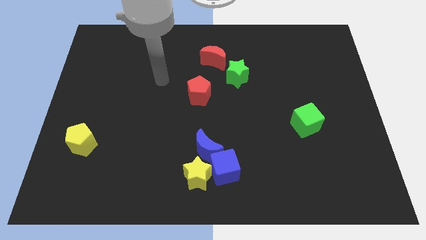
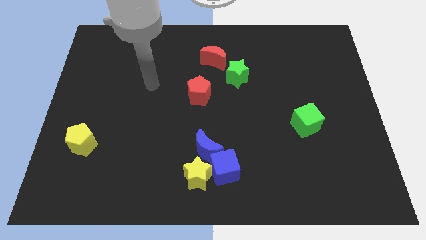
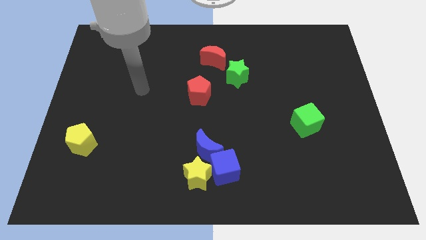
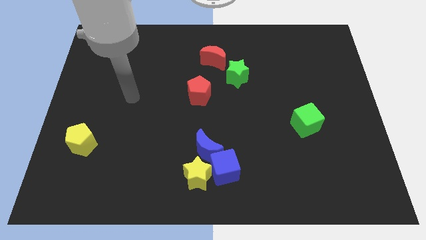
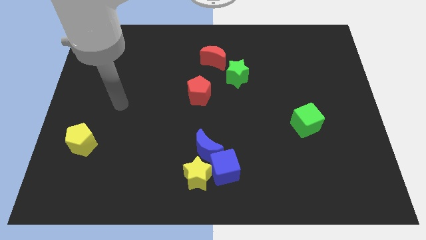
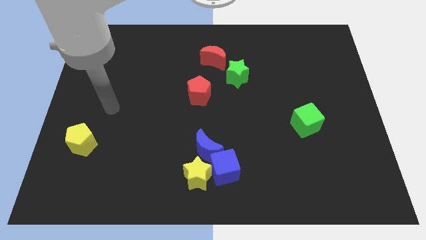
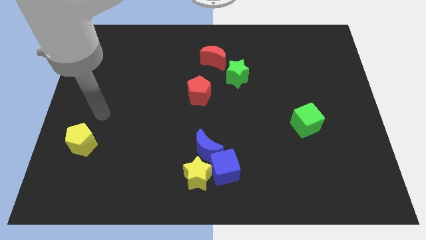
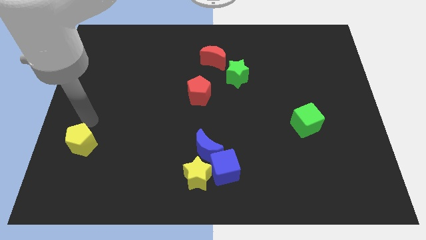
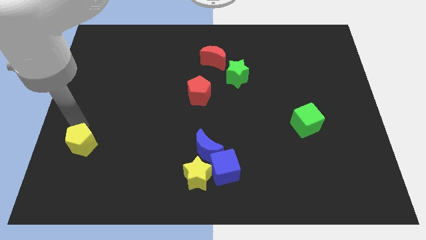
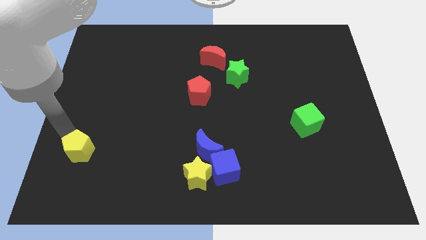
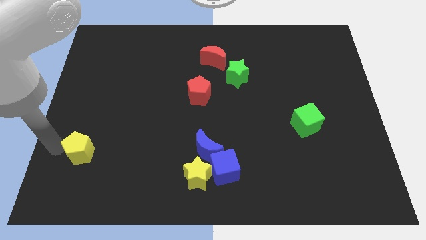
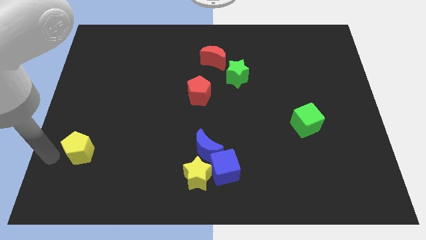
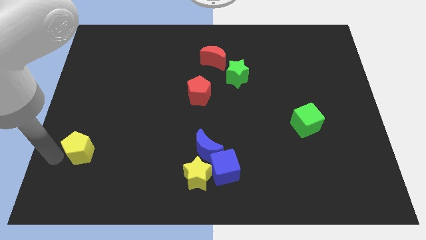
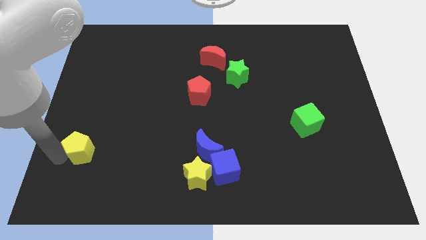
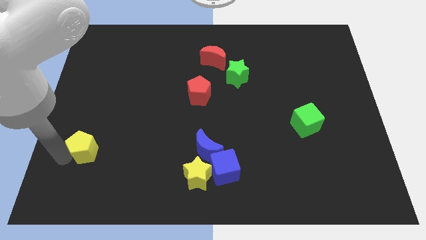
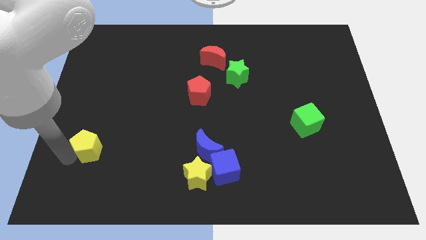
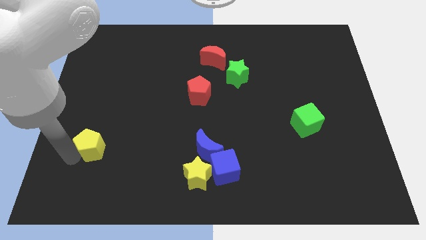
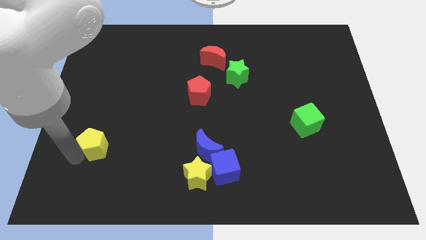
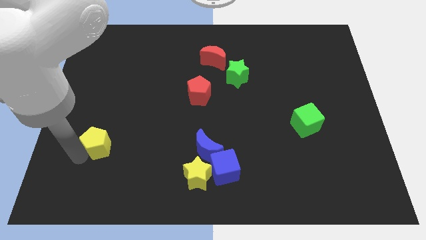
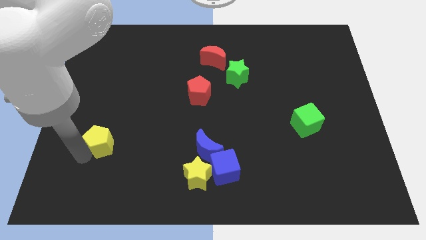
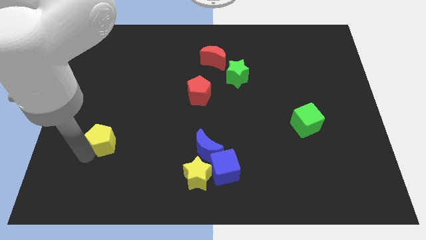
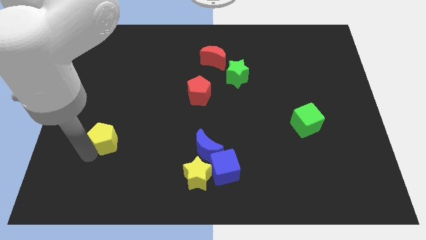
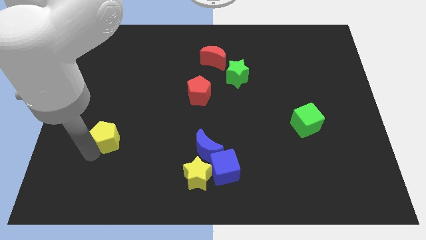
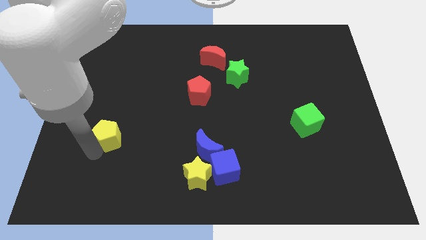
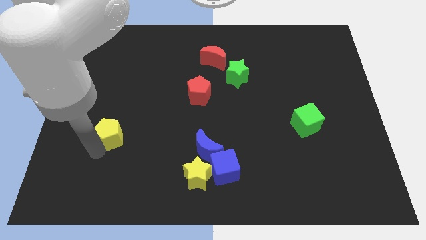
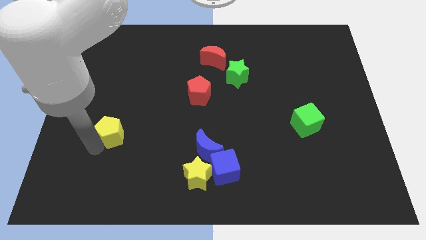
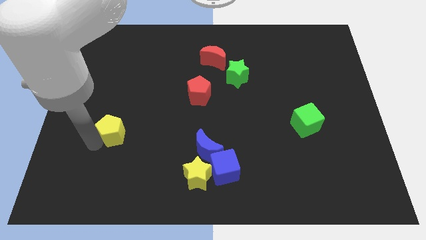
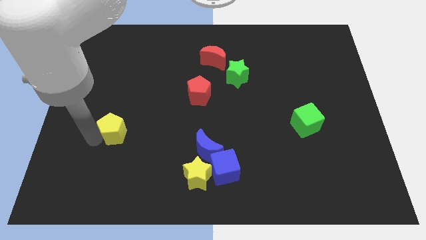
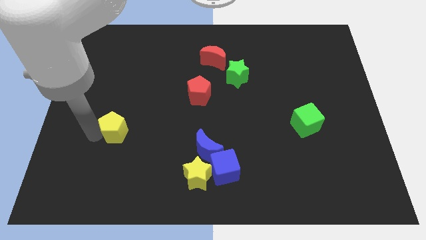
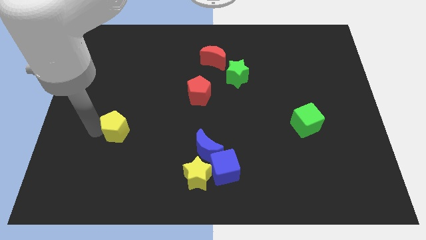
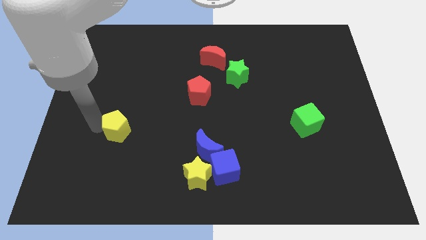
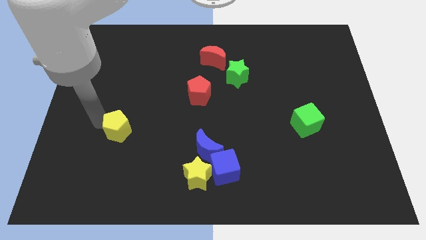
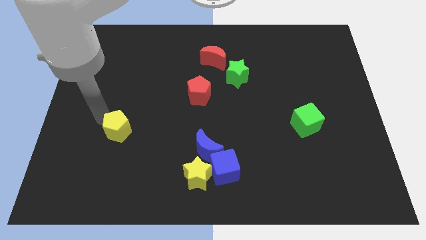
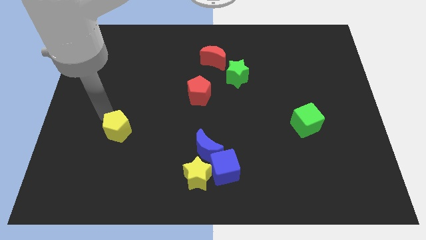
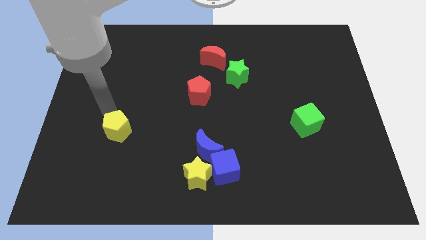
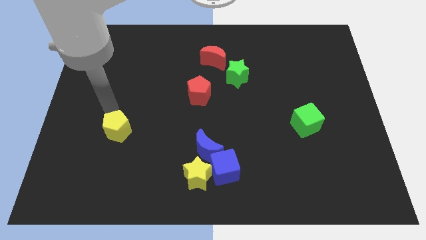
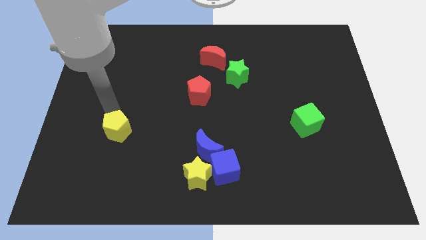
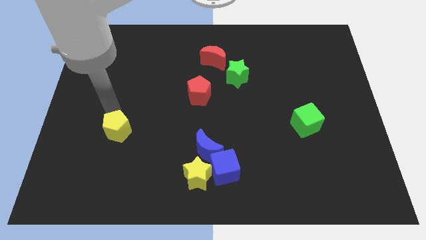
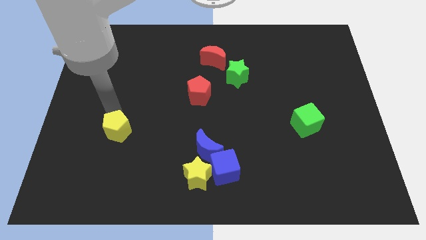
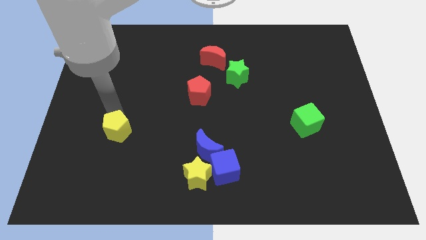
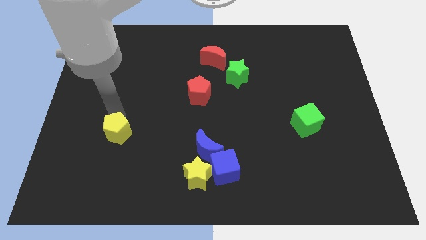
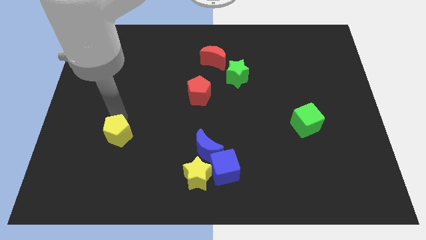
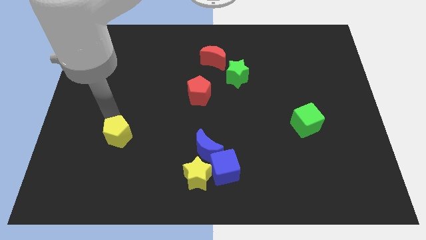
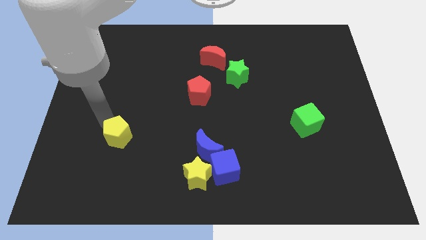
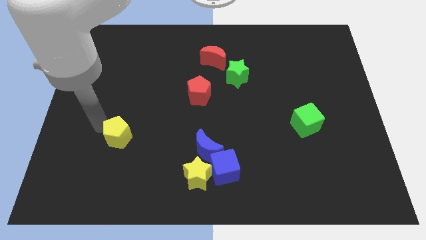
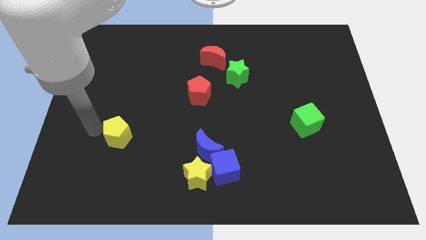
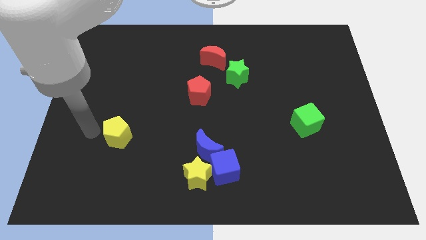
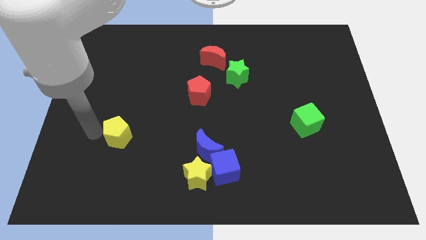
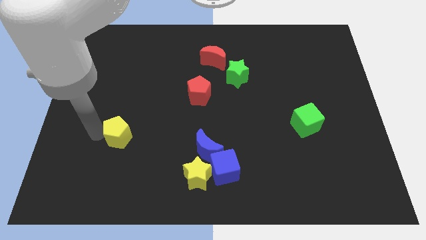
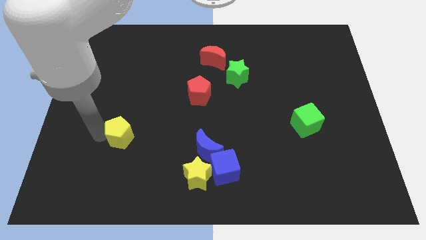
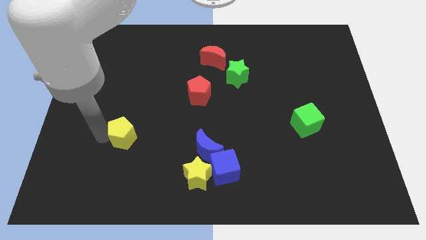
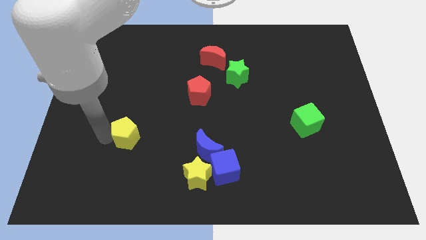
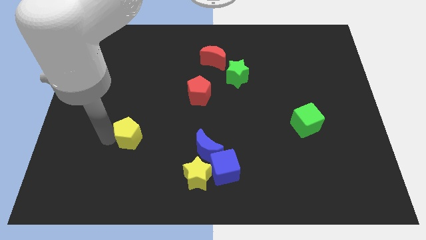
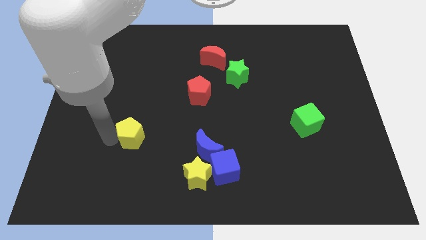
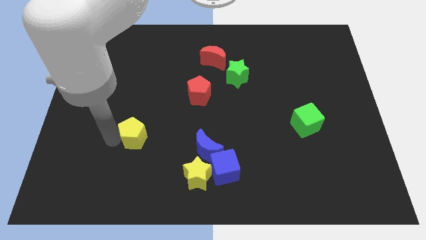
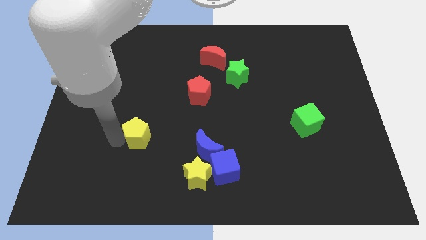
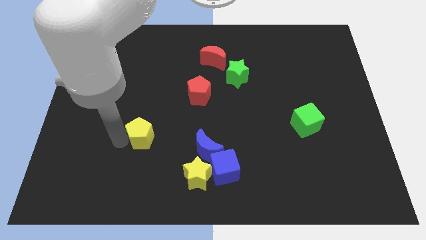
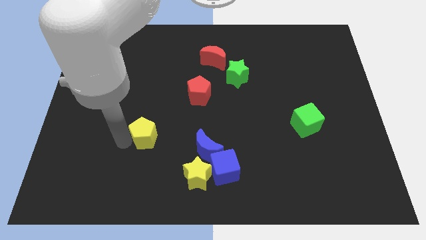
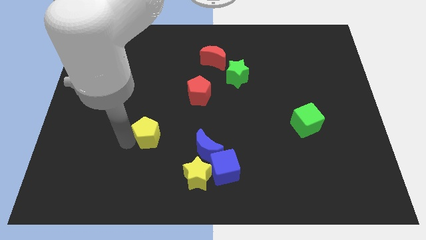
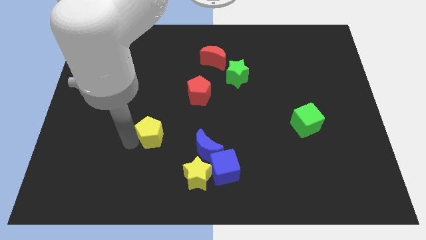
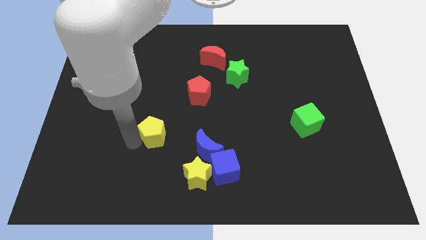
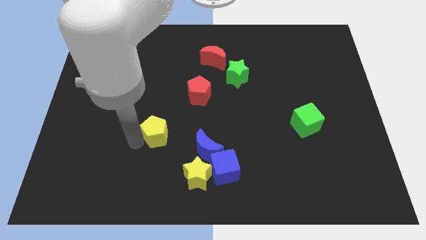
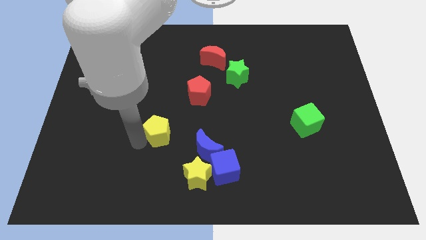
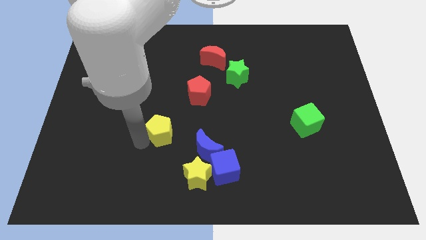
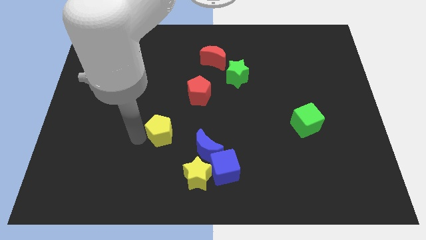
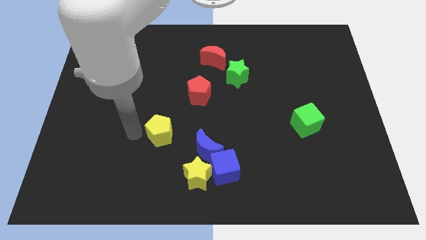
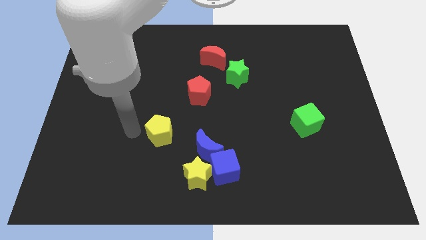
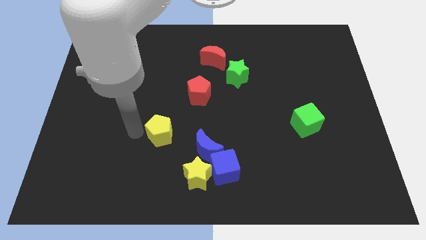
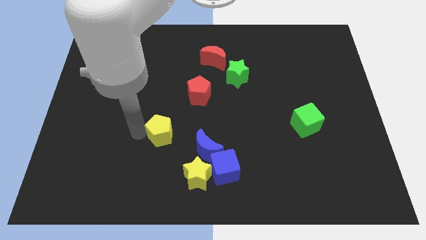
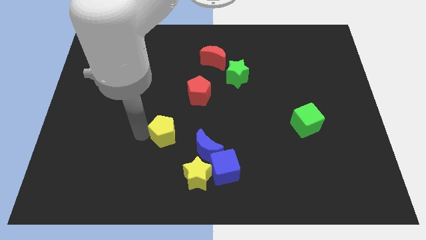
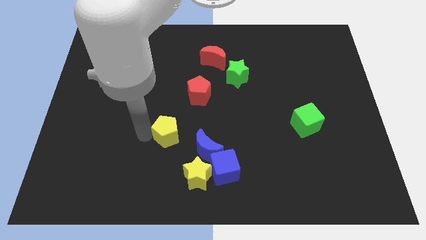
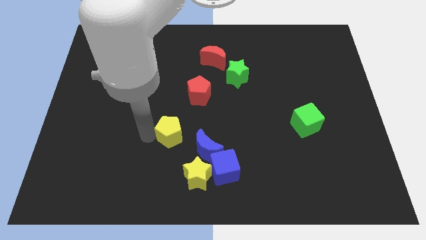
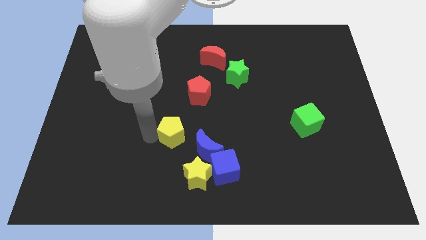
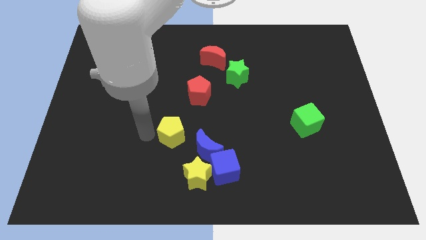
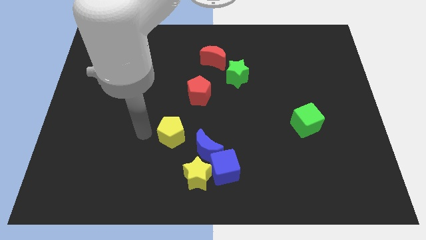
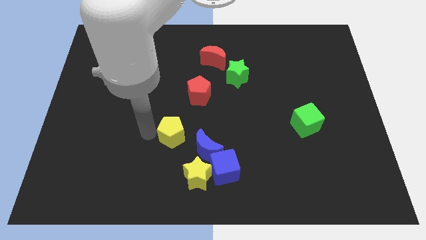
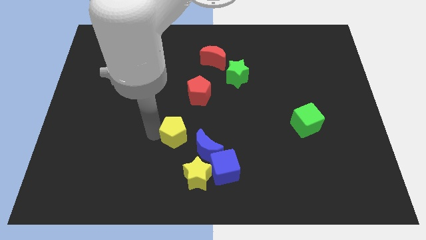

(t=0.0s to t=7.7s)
move the yellow pentagon to the right
